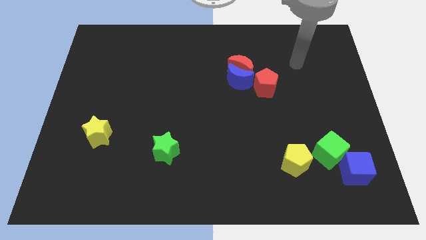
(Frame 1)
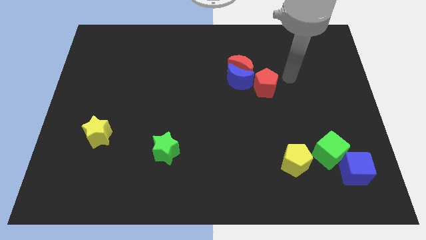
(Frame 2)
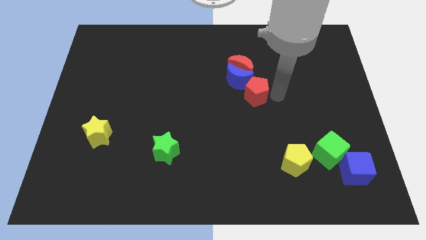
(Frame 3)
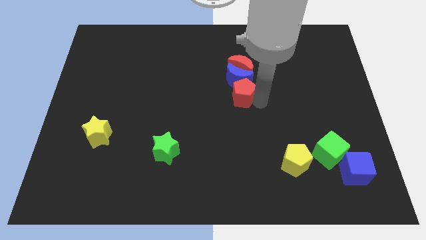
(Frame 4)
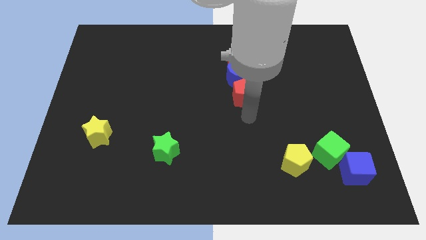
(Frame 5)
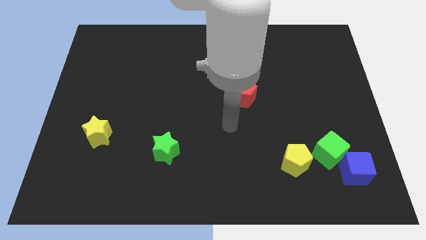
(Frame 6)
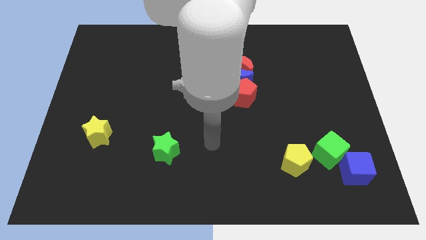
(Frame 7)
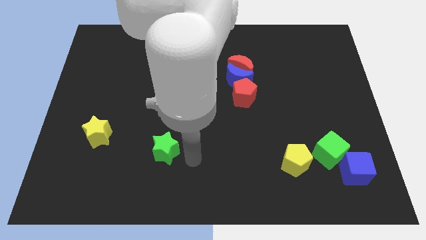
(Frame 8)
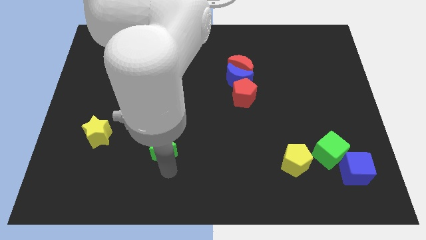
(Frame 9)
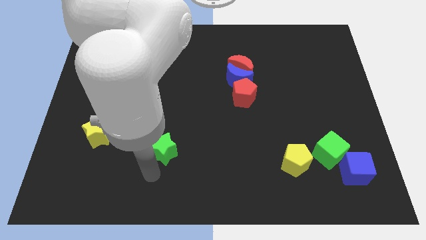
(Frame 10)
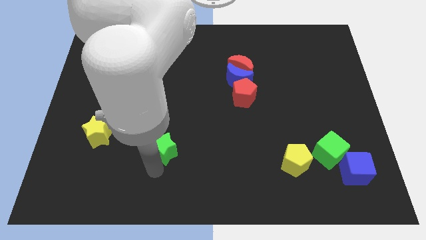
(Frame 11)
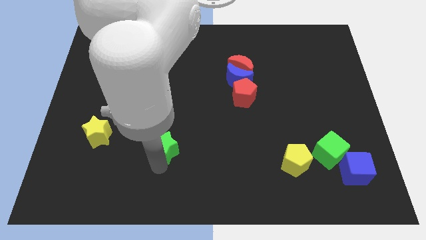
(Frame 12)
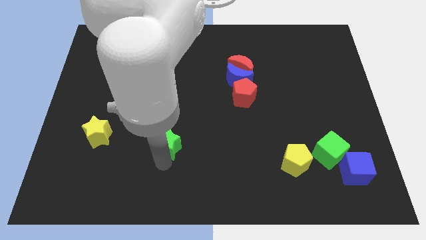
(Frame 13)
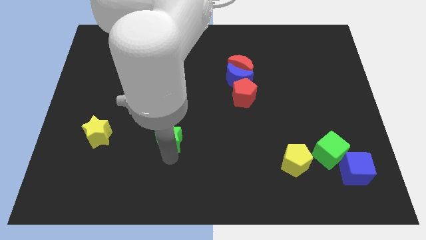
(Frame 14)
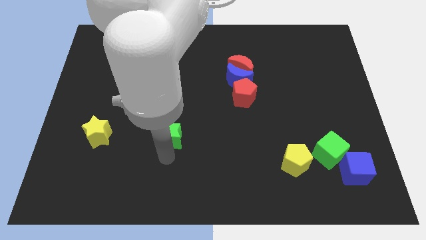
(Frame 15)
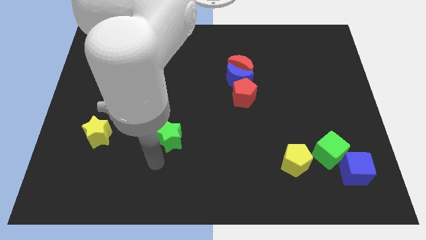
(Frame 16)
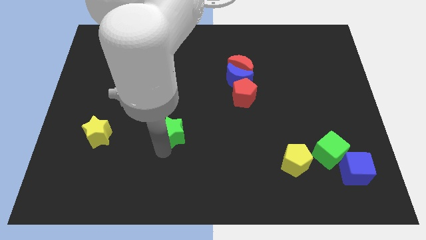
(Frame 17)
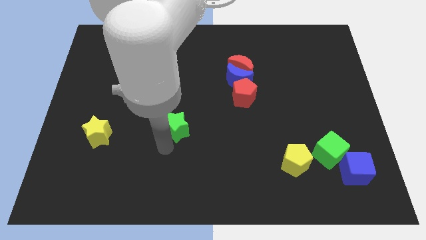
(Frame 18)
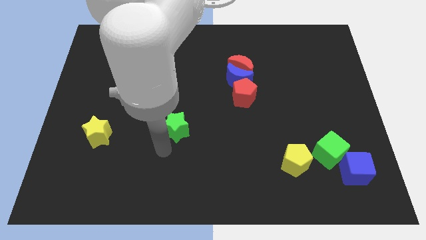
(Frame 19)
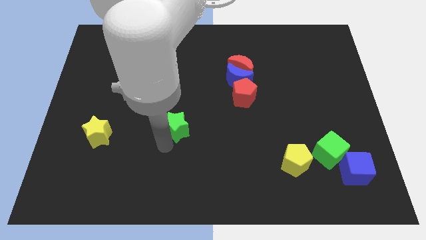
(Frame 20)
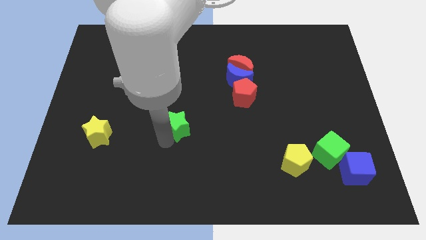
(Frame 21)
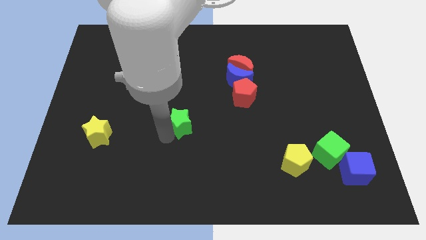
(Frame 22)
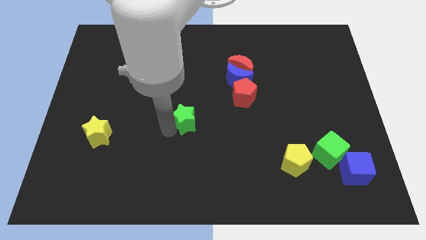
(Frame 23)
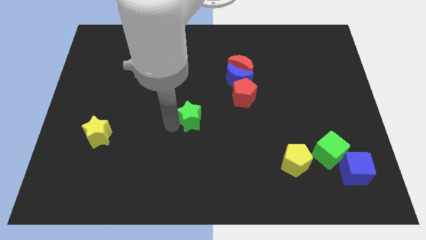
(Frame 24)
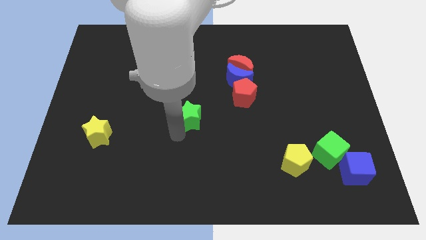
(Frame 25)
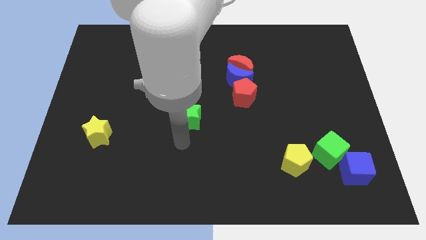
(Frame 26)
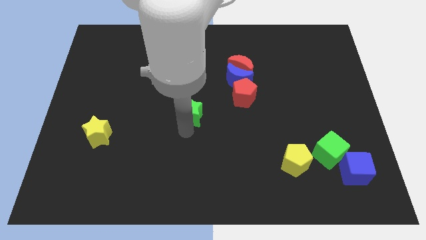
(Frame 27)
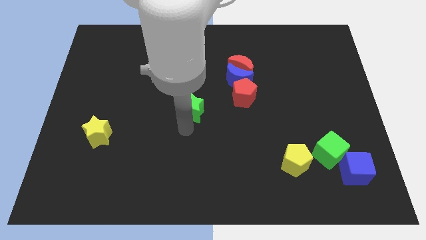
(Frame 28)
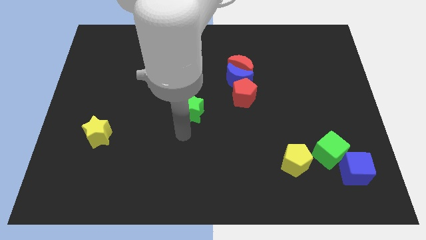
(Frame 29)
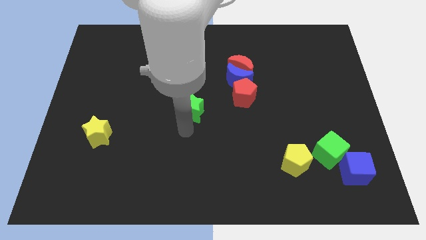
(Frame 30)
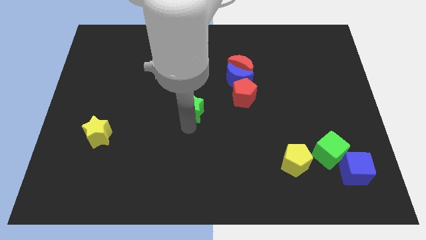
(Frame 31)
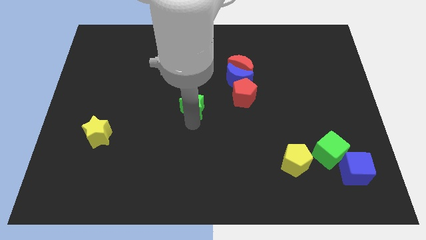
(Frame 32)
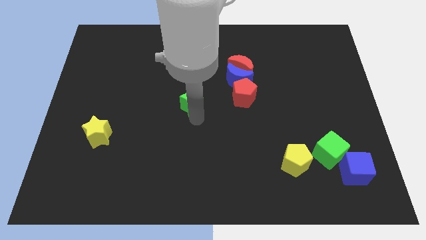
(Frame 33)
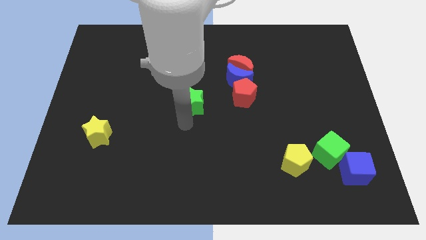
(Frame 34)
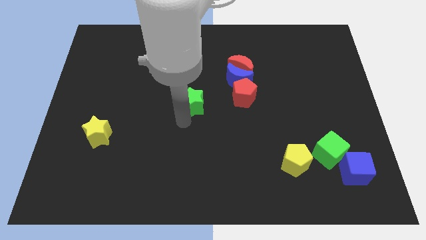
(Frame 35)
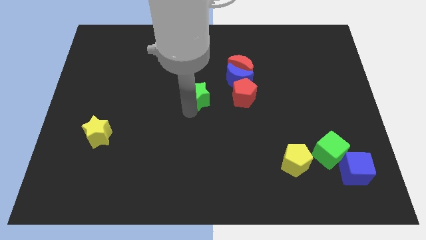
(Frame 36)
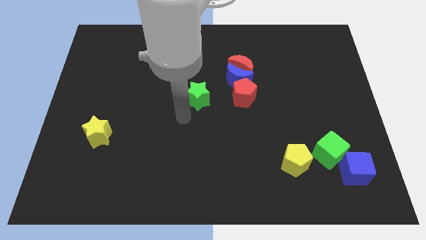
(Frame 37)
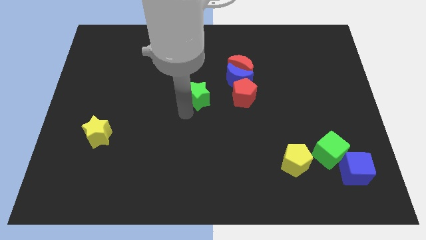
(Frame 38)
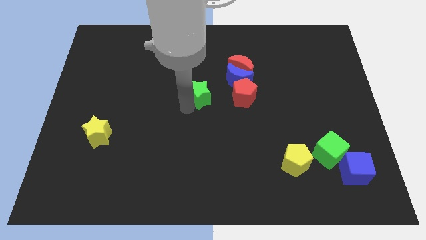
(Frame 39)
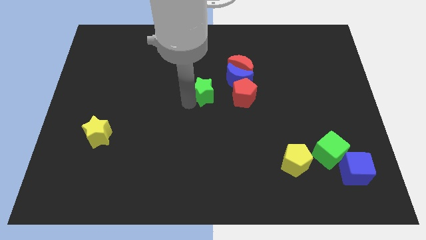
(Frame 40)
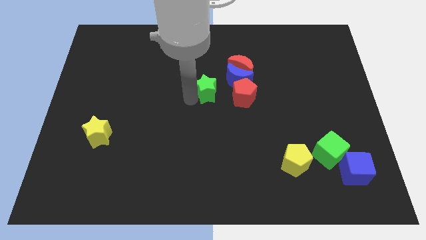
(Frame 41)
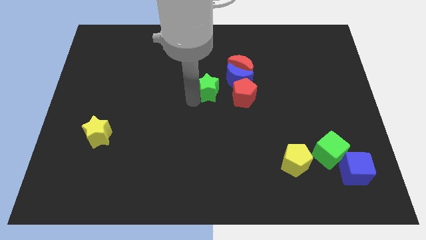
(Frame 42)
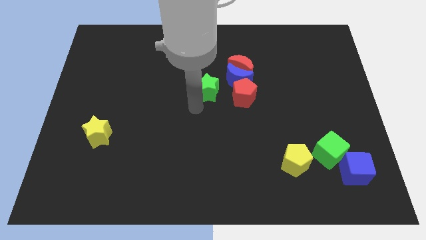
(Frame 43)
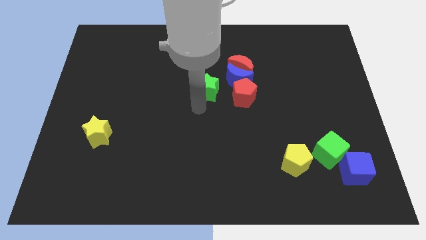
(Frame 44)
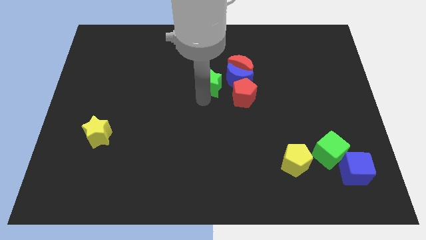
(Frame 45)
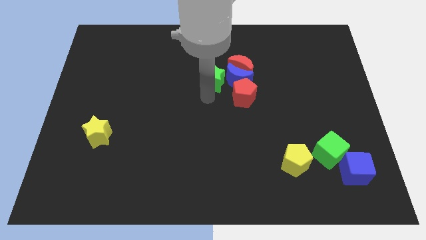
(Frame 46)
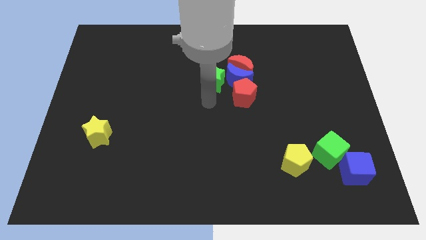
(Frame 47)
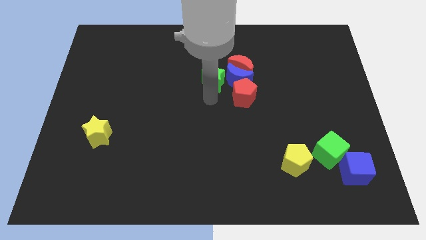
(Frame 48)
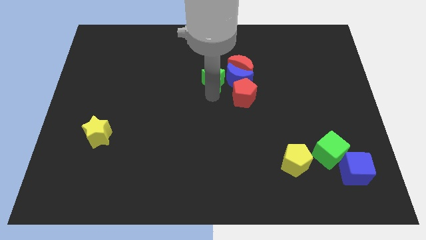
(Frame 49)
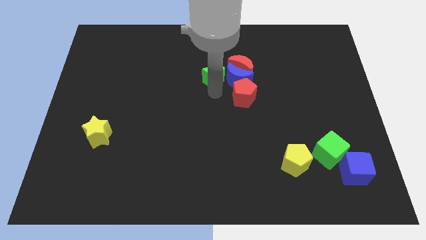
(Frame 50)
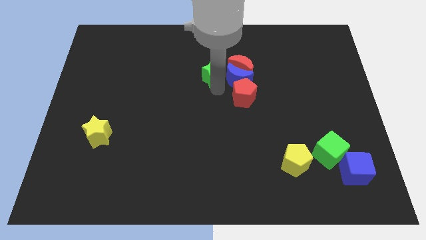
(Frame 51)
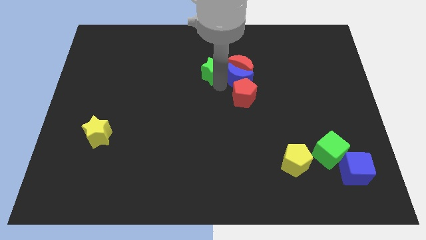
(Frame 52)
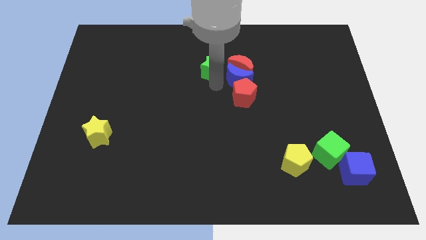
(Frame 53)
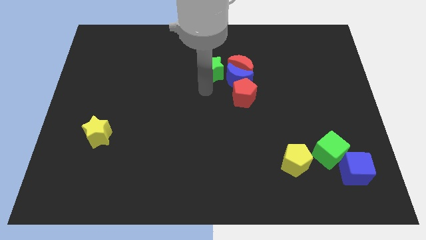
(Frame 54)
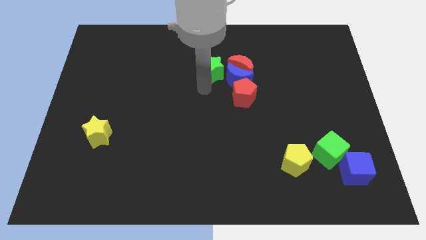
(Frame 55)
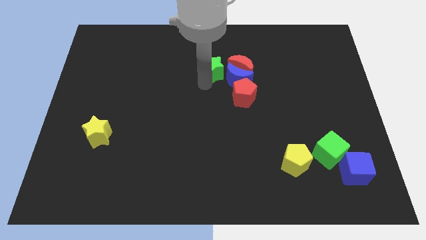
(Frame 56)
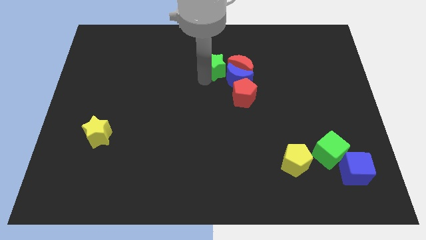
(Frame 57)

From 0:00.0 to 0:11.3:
move the green star to the top left side of the red moon

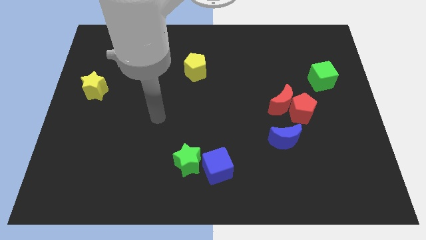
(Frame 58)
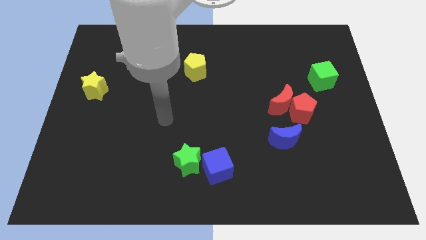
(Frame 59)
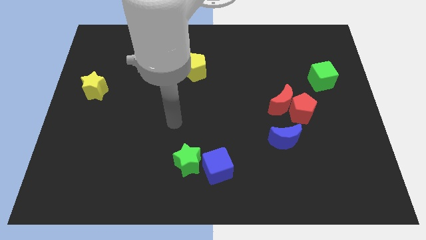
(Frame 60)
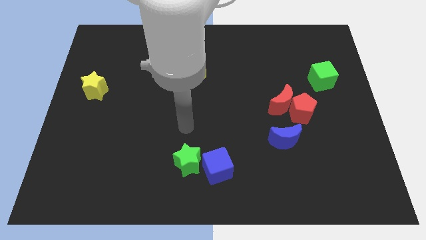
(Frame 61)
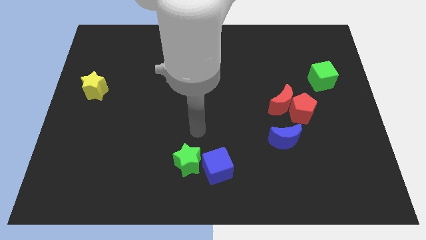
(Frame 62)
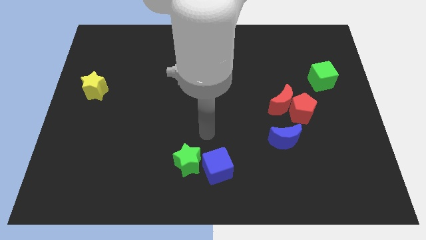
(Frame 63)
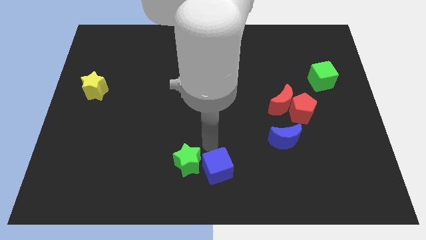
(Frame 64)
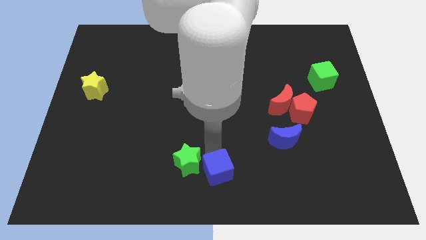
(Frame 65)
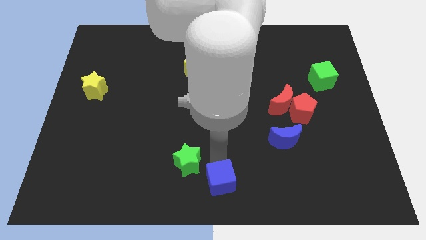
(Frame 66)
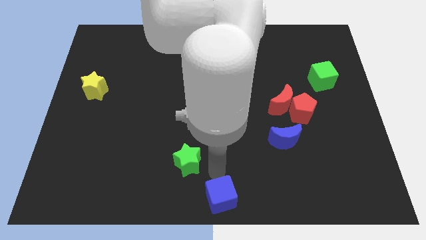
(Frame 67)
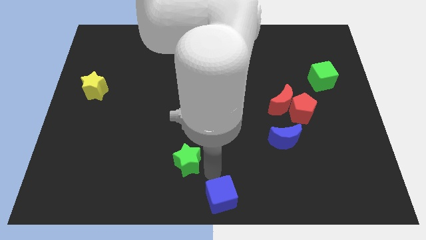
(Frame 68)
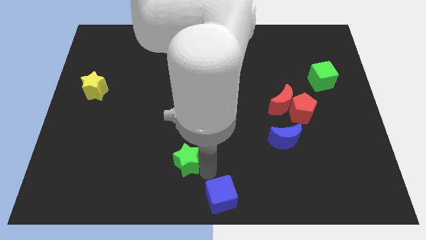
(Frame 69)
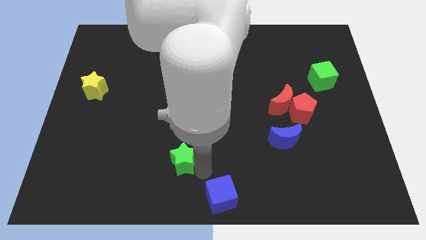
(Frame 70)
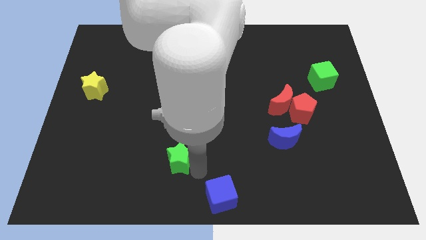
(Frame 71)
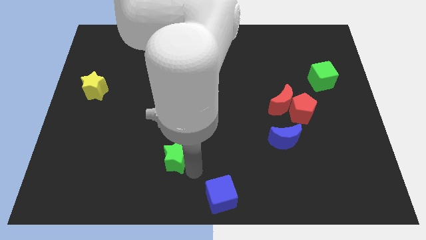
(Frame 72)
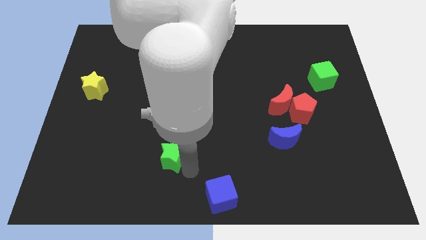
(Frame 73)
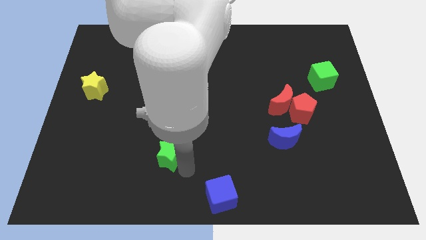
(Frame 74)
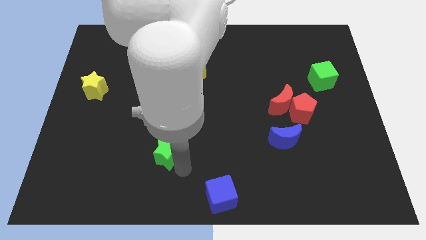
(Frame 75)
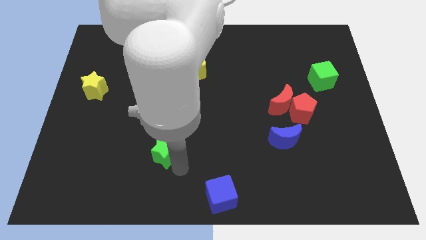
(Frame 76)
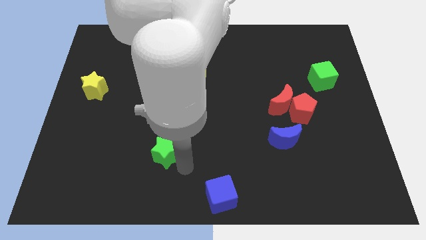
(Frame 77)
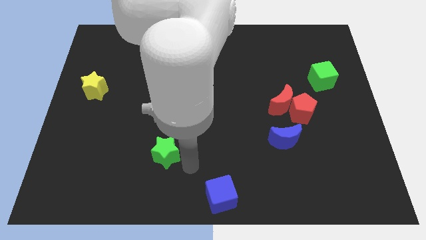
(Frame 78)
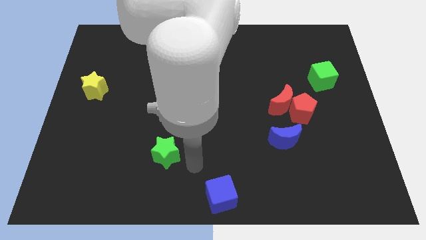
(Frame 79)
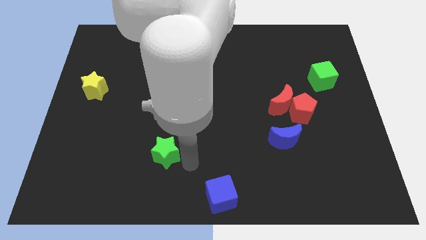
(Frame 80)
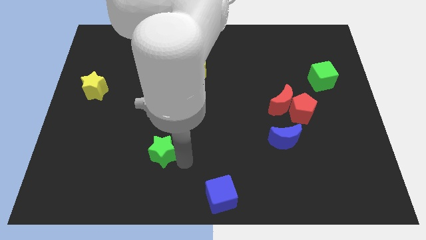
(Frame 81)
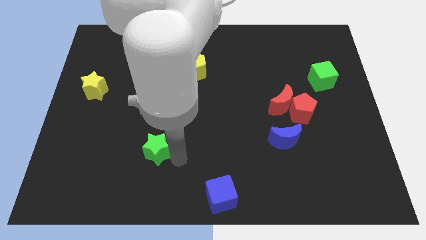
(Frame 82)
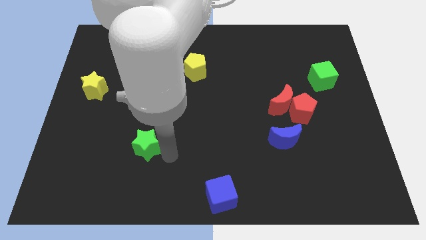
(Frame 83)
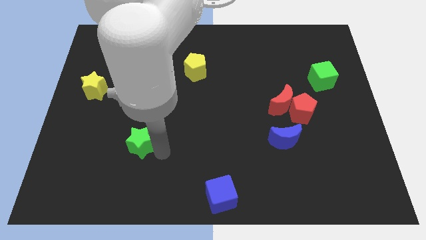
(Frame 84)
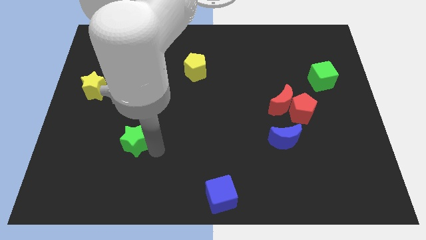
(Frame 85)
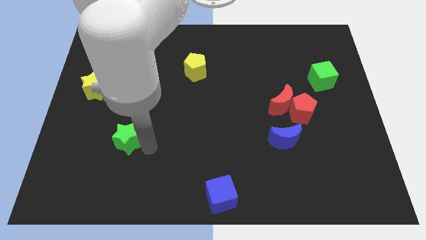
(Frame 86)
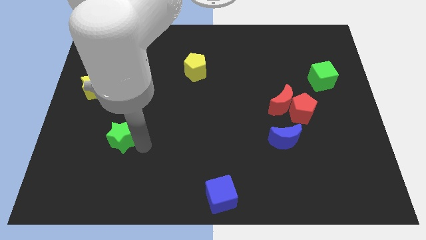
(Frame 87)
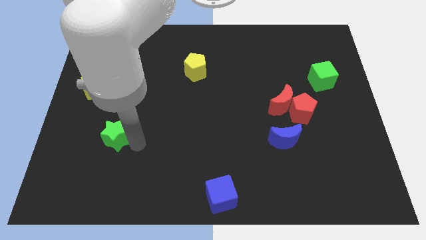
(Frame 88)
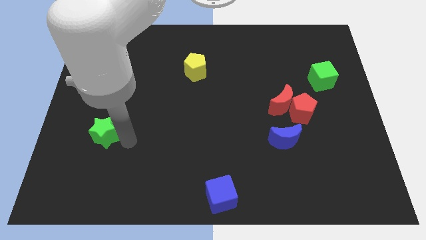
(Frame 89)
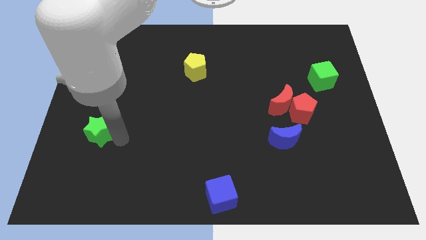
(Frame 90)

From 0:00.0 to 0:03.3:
put the green star to the bottom of the yellow star
